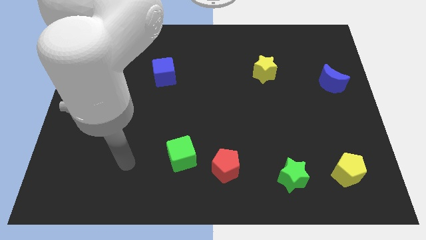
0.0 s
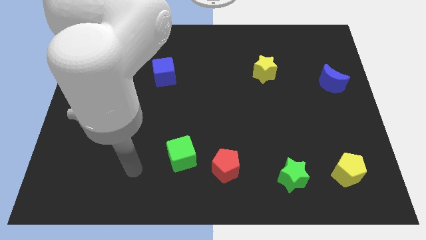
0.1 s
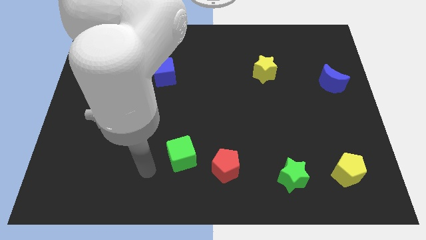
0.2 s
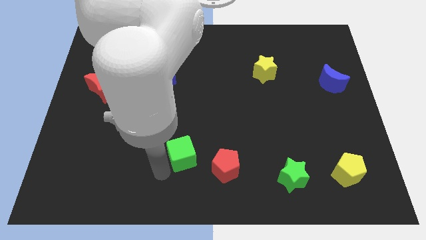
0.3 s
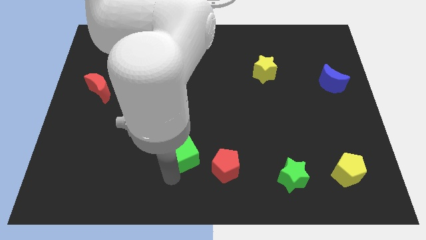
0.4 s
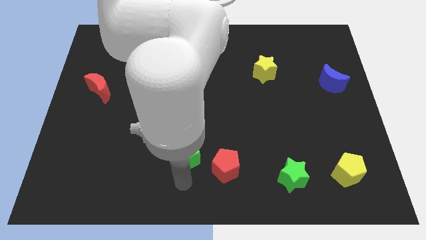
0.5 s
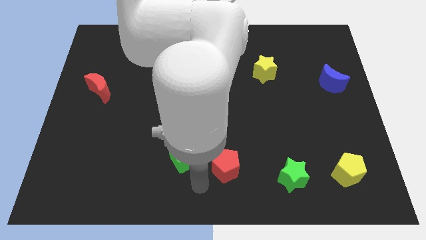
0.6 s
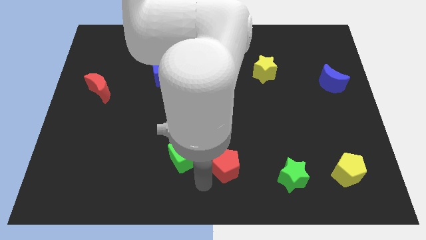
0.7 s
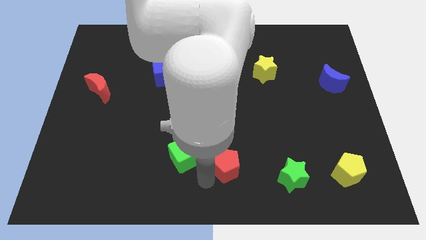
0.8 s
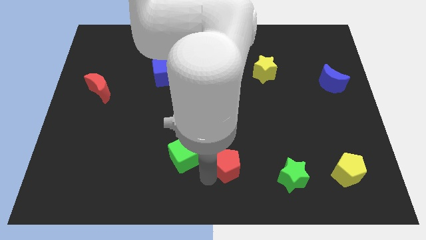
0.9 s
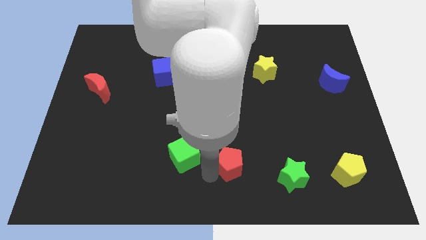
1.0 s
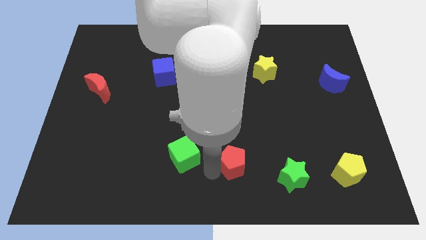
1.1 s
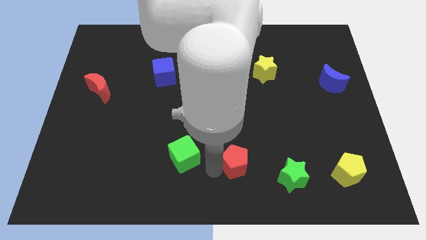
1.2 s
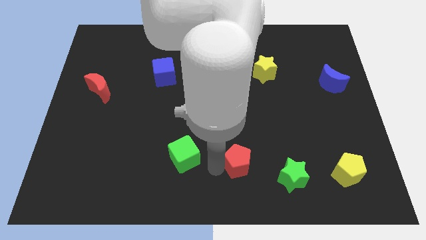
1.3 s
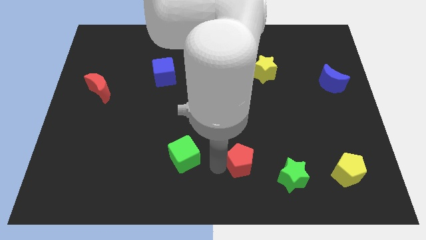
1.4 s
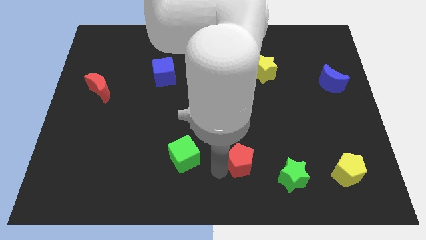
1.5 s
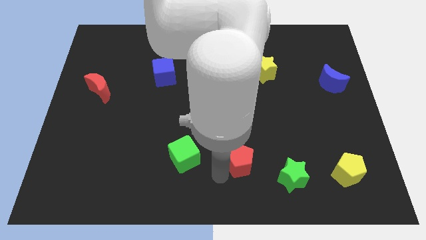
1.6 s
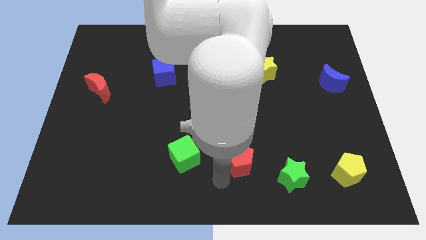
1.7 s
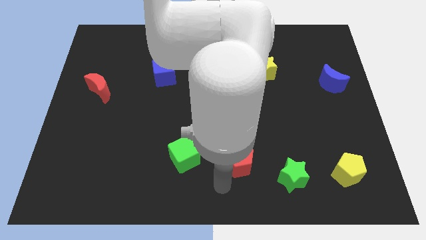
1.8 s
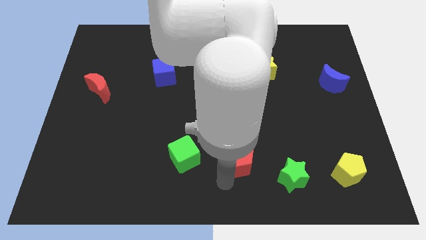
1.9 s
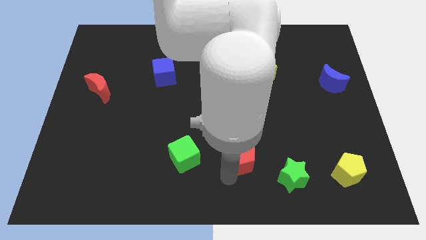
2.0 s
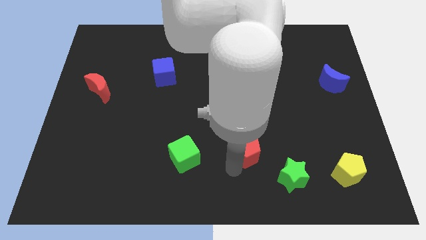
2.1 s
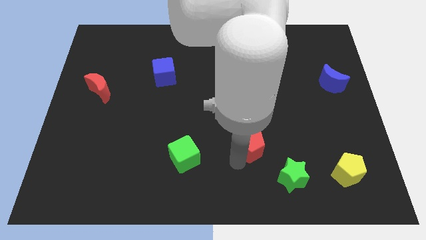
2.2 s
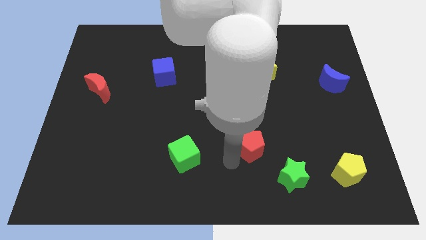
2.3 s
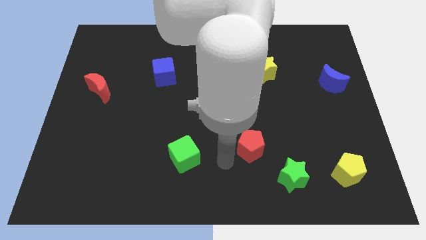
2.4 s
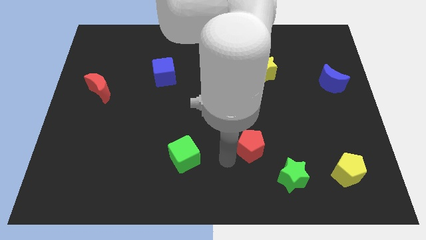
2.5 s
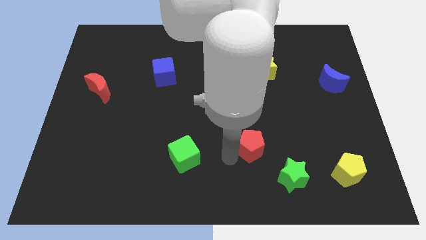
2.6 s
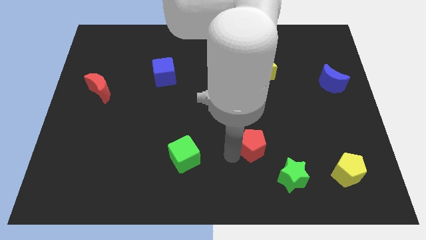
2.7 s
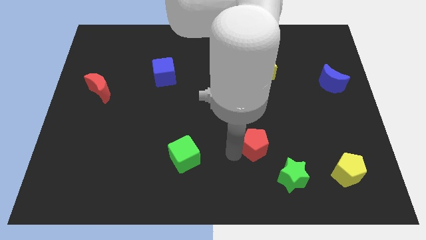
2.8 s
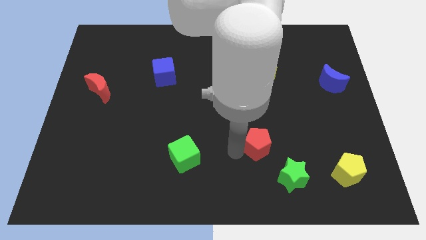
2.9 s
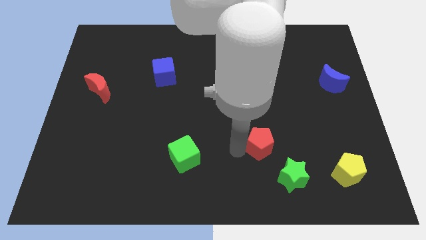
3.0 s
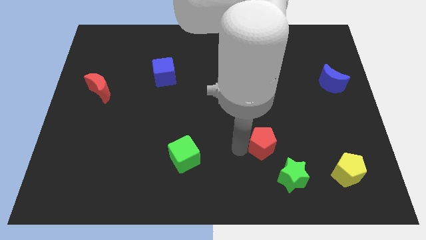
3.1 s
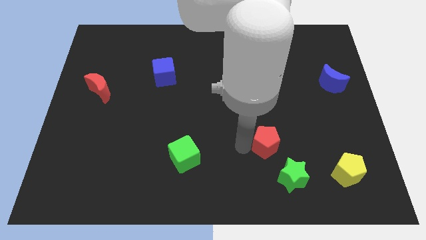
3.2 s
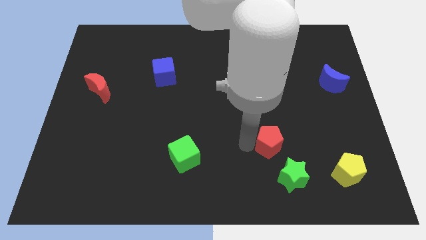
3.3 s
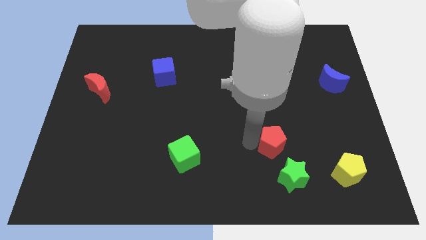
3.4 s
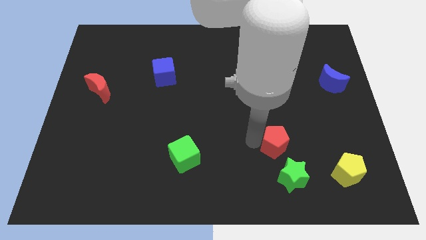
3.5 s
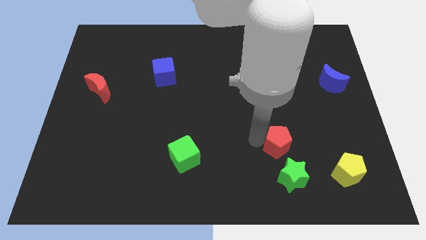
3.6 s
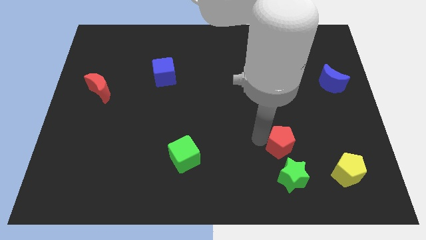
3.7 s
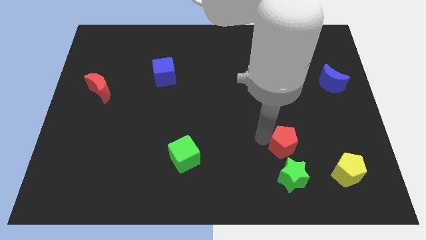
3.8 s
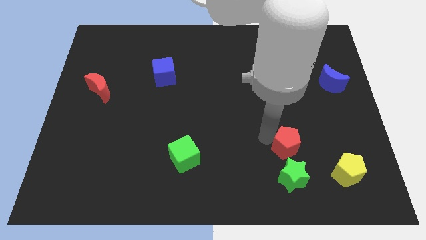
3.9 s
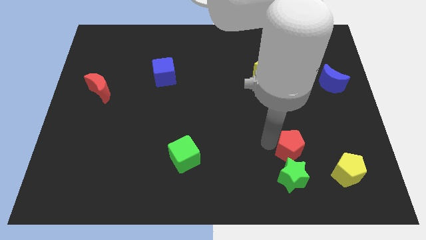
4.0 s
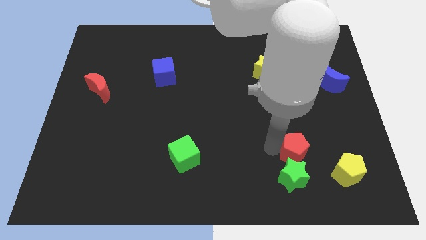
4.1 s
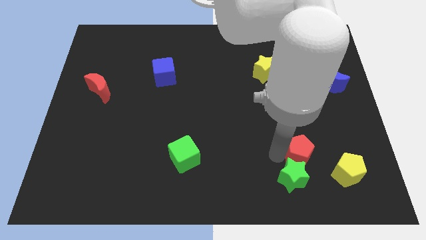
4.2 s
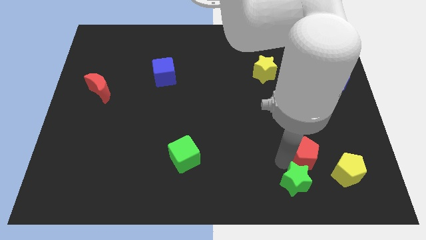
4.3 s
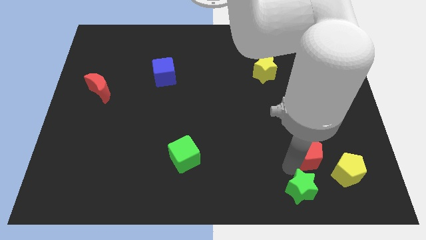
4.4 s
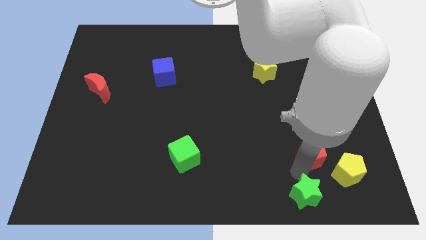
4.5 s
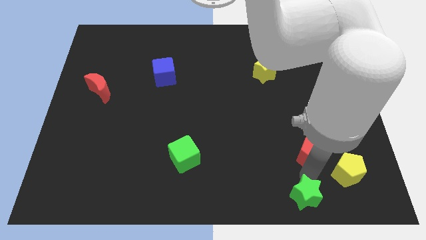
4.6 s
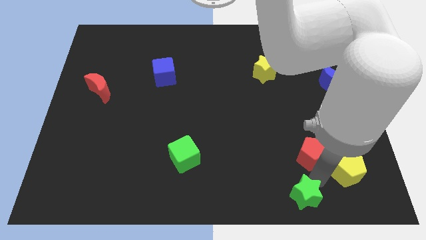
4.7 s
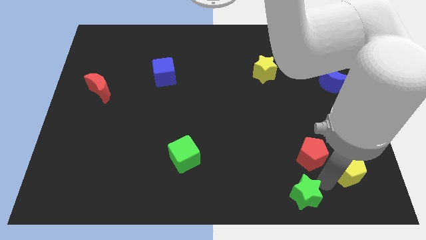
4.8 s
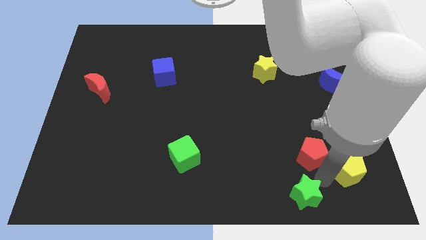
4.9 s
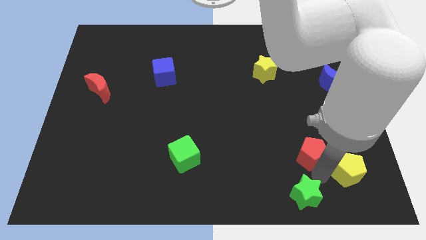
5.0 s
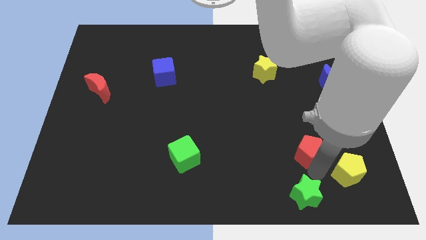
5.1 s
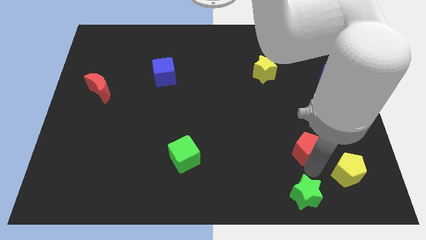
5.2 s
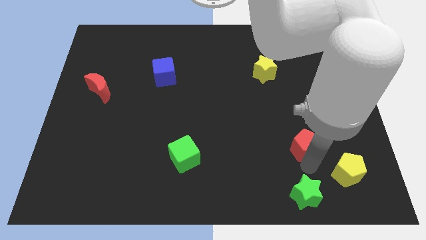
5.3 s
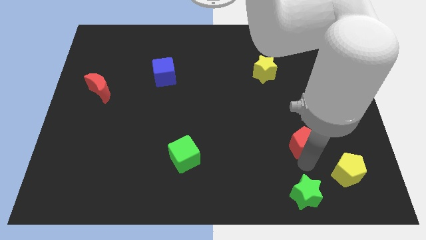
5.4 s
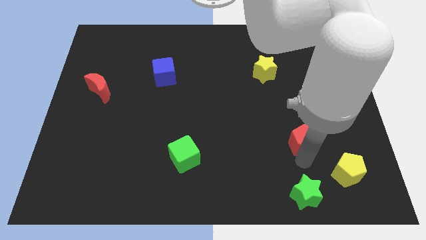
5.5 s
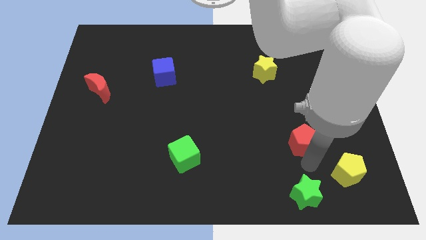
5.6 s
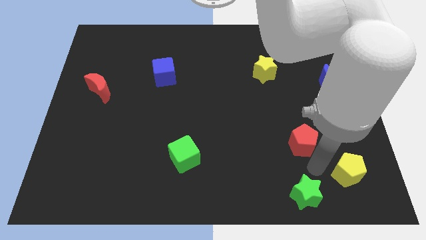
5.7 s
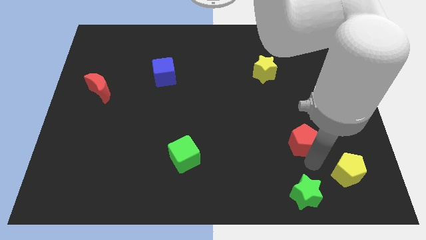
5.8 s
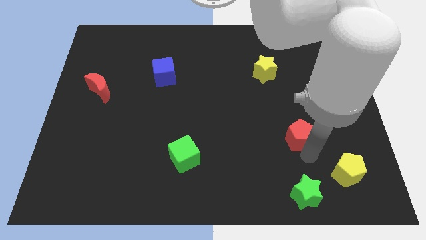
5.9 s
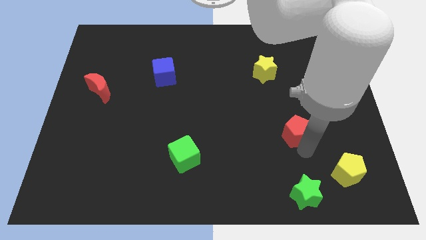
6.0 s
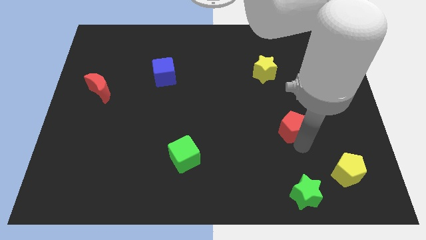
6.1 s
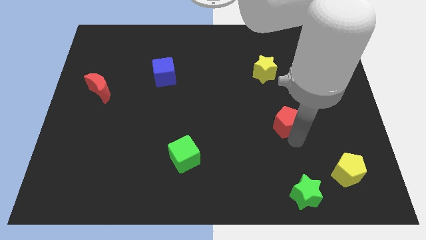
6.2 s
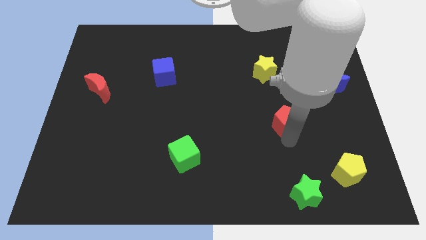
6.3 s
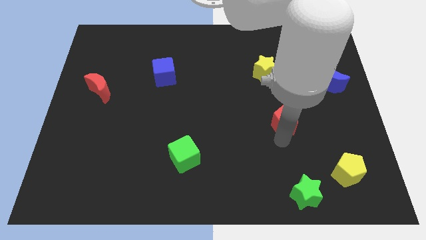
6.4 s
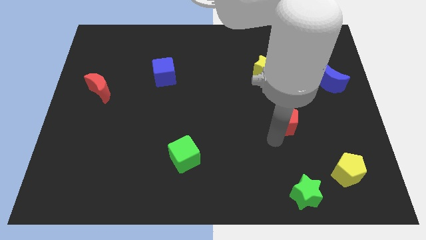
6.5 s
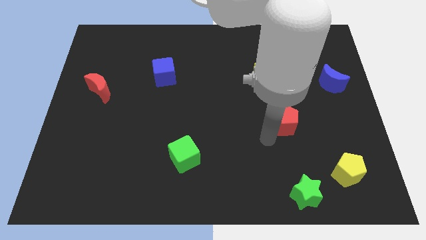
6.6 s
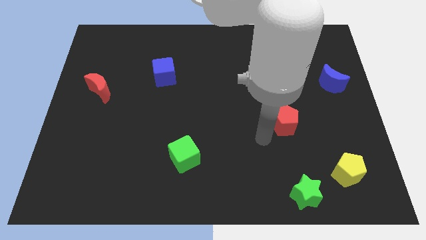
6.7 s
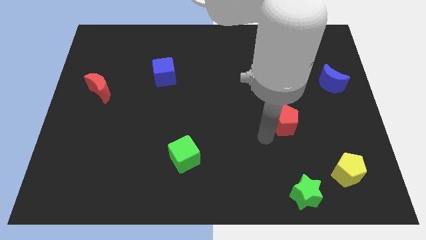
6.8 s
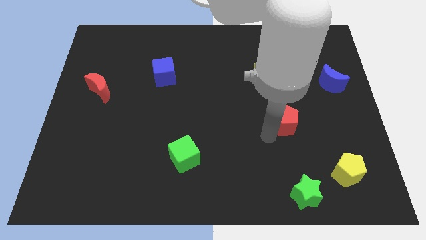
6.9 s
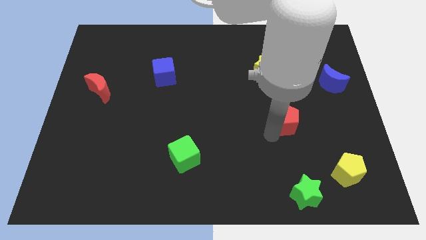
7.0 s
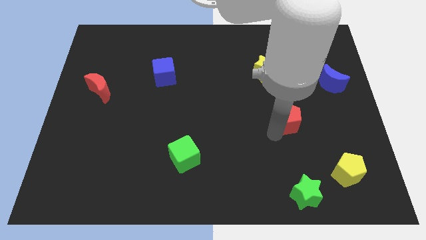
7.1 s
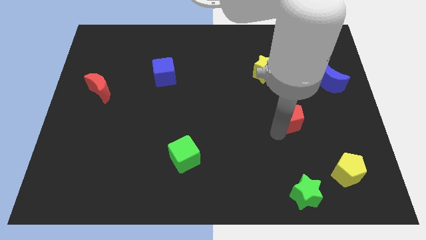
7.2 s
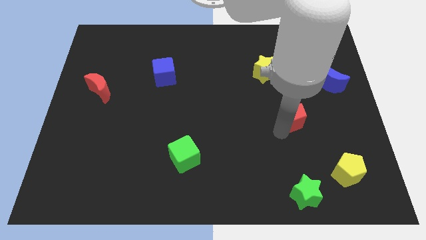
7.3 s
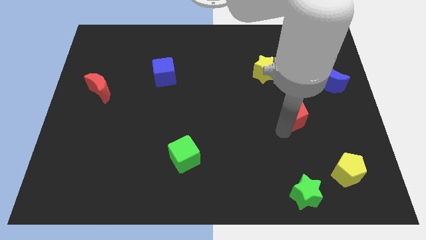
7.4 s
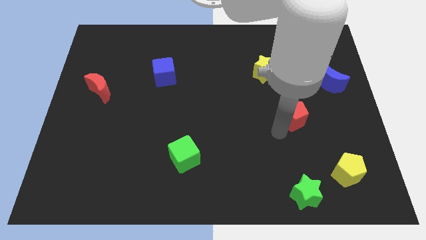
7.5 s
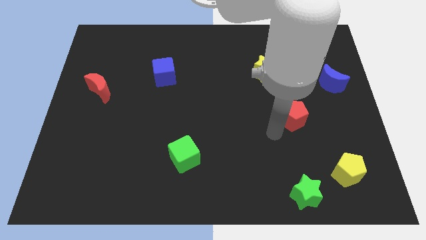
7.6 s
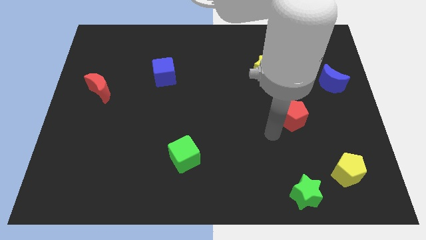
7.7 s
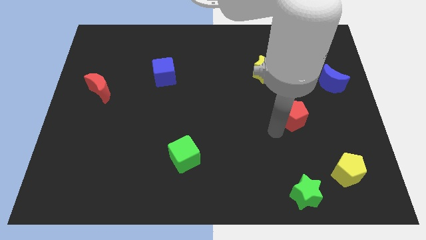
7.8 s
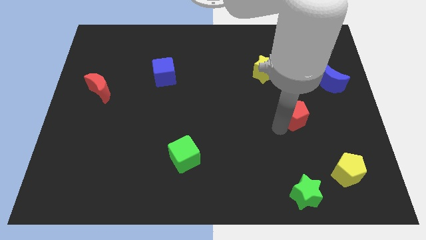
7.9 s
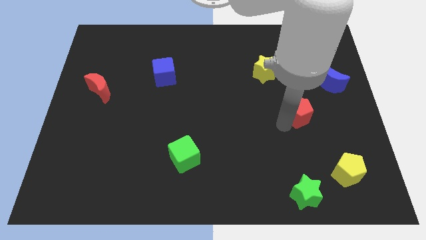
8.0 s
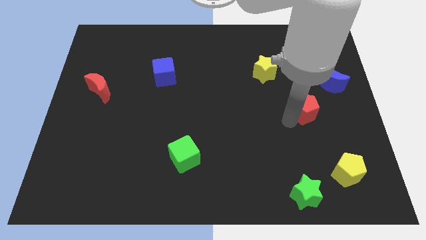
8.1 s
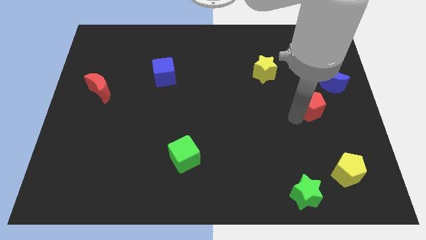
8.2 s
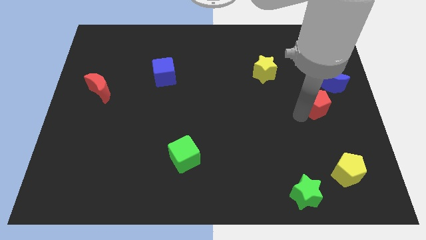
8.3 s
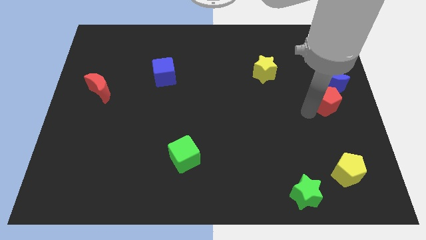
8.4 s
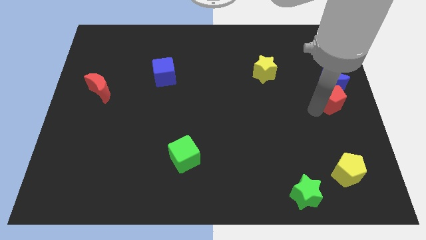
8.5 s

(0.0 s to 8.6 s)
put the red pentagon close to the blue moon
